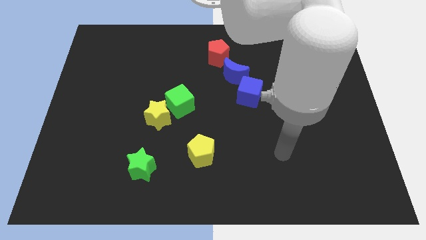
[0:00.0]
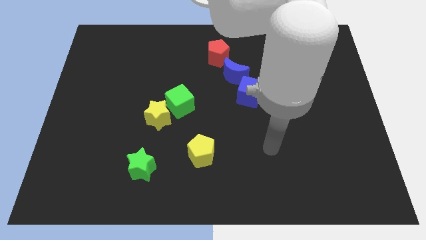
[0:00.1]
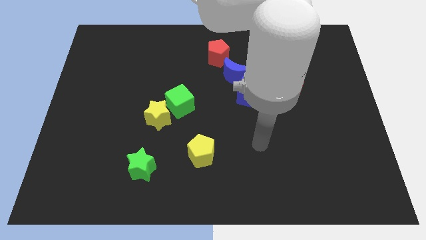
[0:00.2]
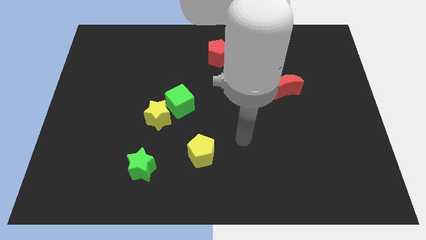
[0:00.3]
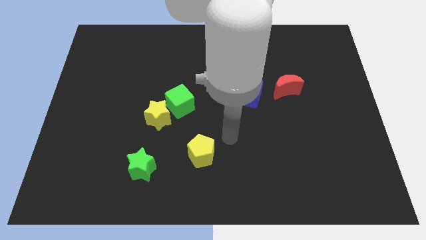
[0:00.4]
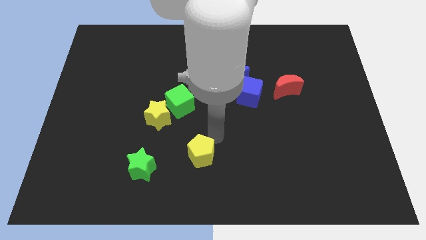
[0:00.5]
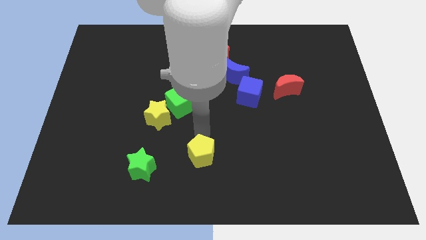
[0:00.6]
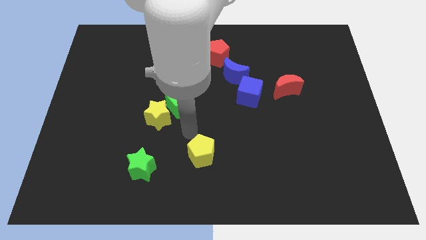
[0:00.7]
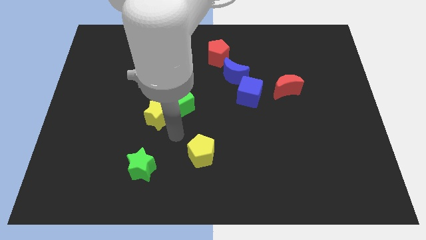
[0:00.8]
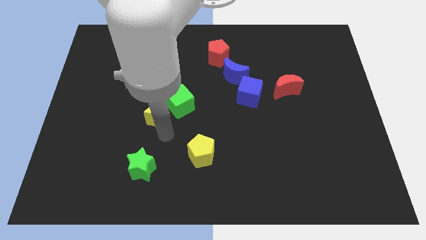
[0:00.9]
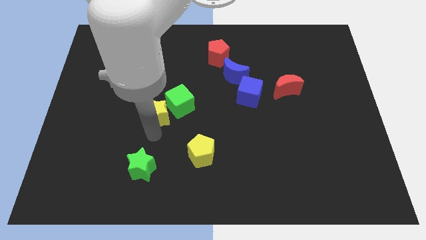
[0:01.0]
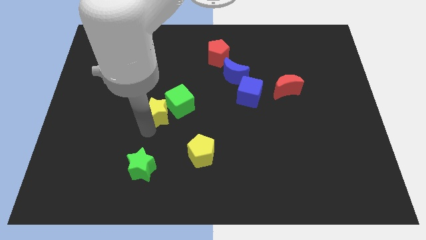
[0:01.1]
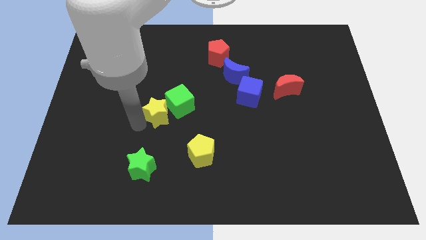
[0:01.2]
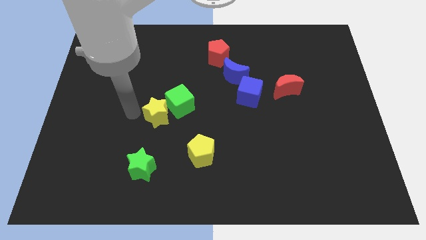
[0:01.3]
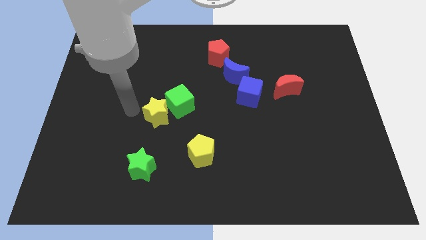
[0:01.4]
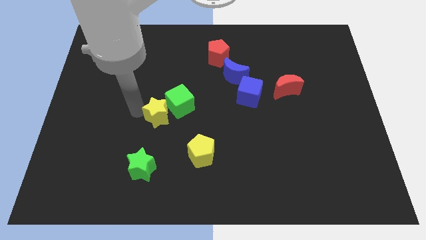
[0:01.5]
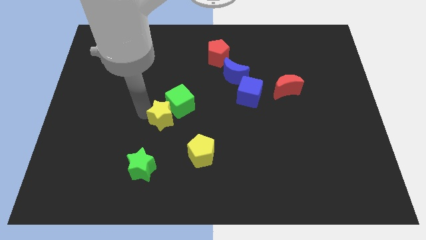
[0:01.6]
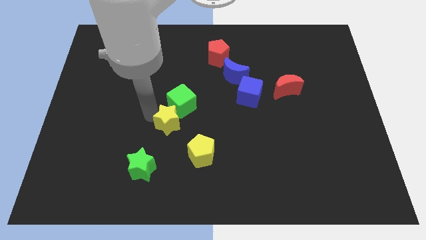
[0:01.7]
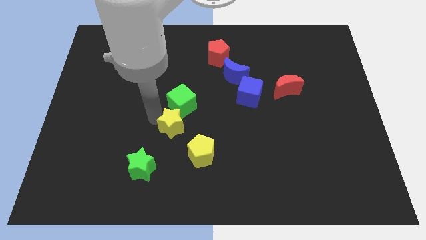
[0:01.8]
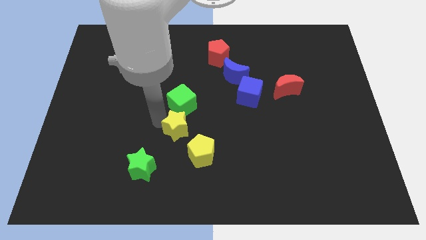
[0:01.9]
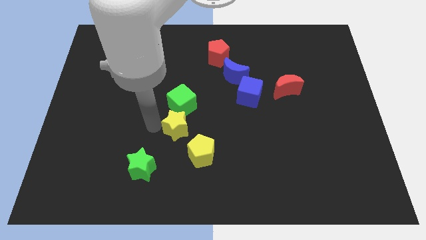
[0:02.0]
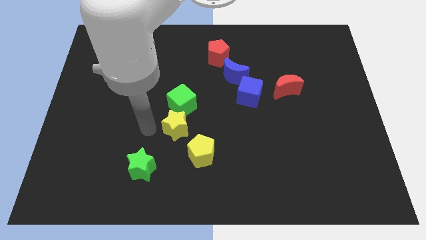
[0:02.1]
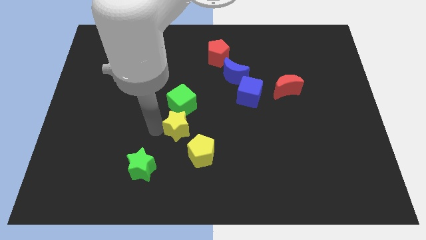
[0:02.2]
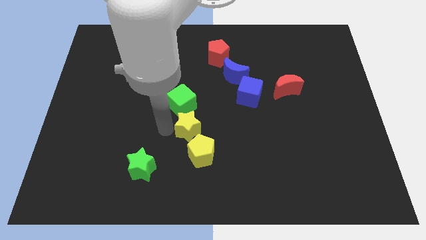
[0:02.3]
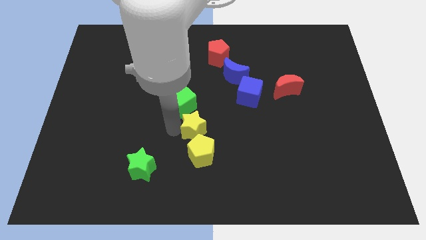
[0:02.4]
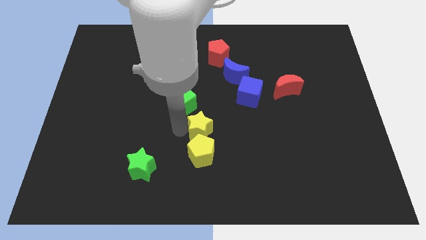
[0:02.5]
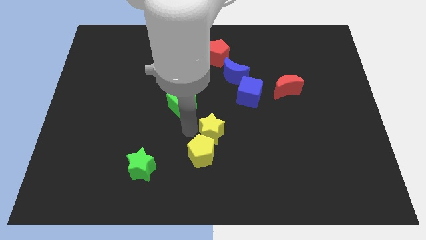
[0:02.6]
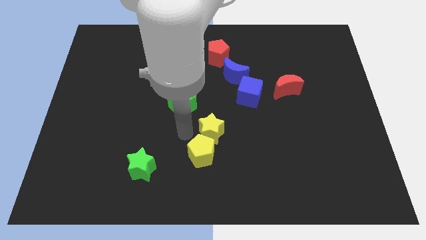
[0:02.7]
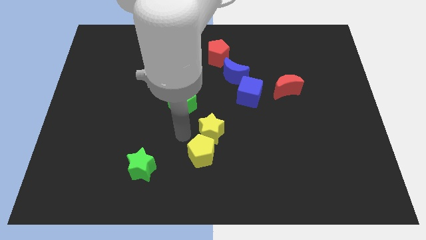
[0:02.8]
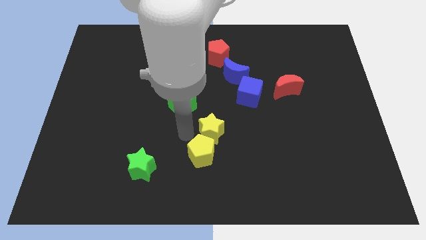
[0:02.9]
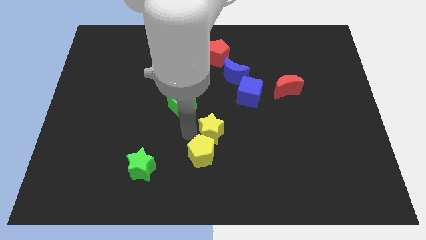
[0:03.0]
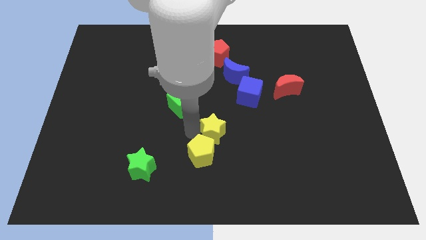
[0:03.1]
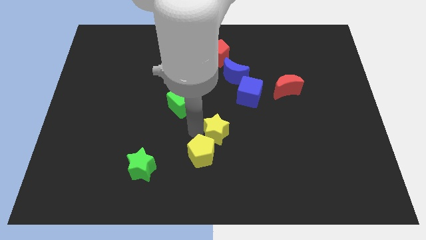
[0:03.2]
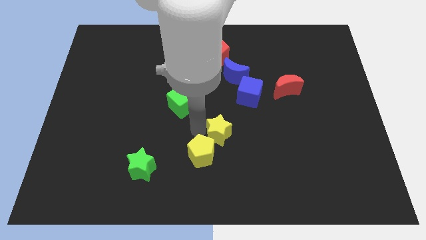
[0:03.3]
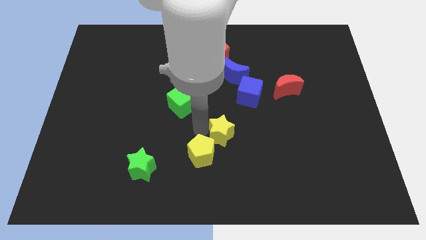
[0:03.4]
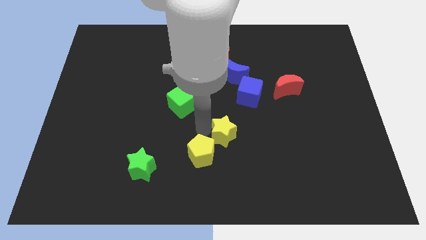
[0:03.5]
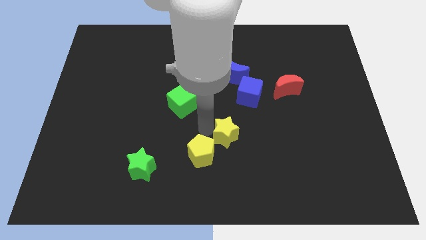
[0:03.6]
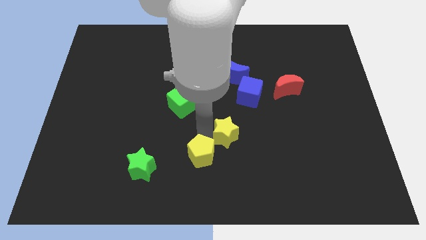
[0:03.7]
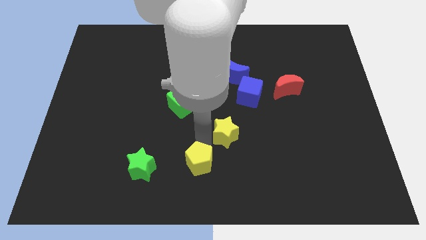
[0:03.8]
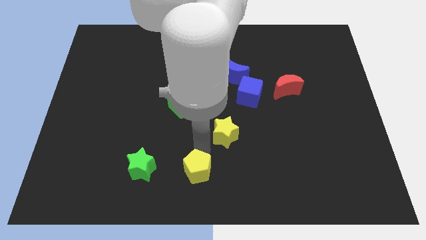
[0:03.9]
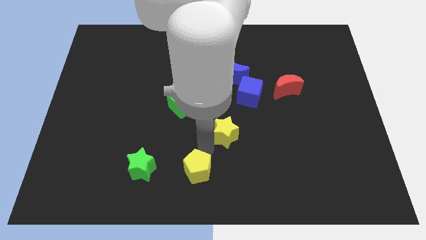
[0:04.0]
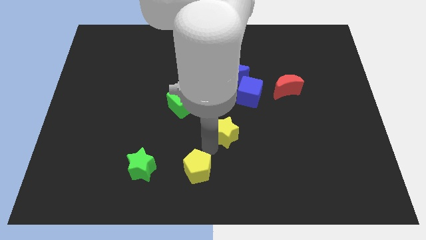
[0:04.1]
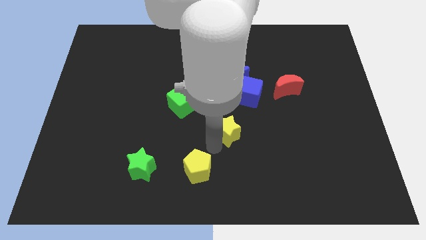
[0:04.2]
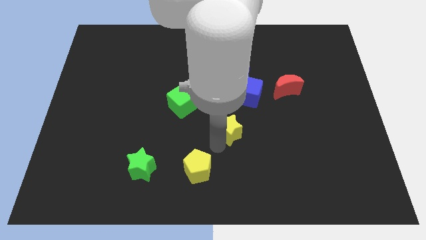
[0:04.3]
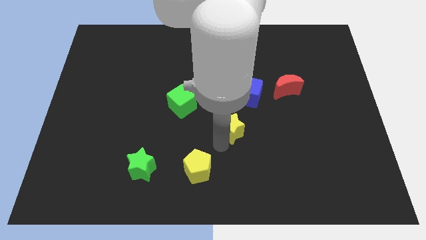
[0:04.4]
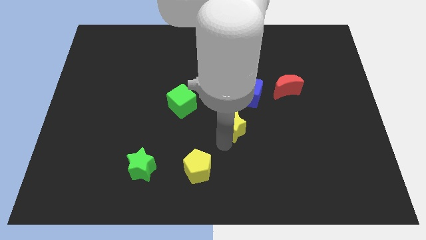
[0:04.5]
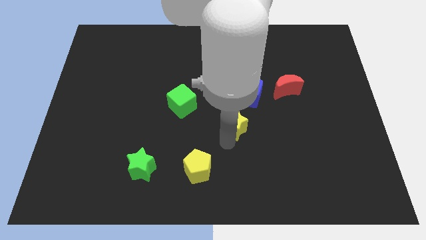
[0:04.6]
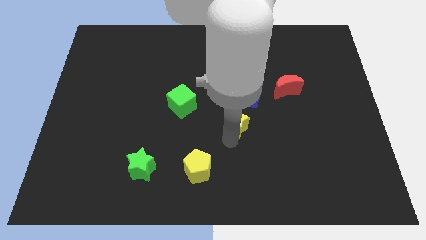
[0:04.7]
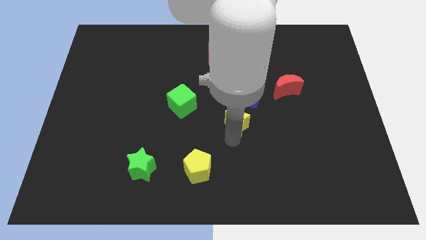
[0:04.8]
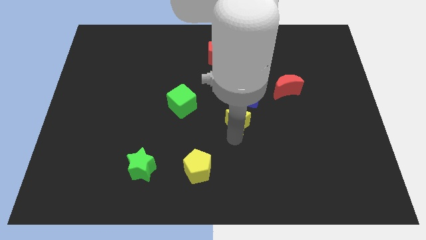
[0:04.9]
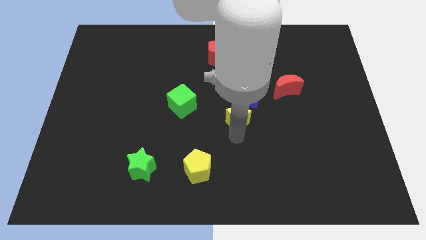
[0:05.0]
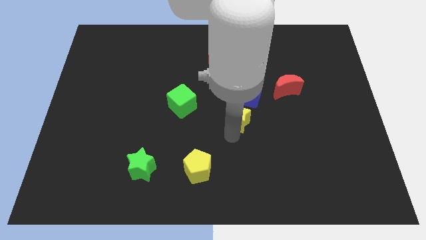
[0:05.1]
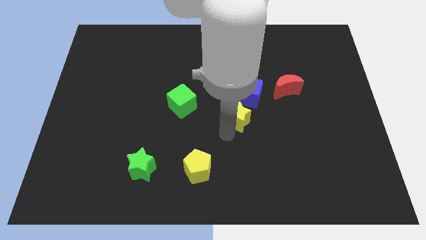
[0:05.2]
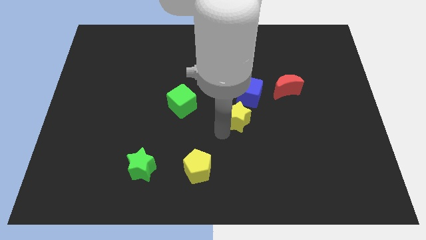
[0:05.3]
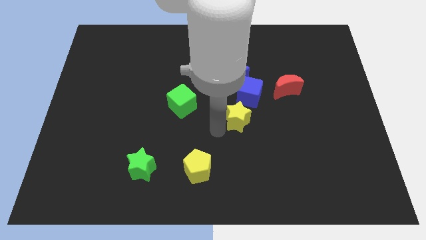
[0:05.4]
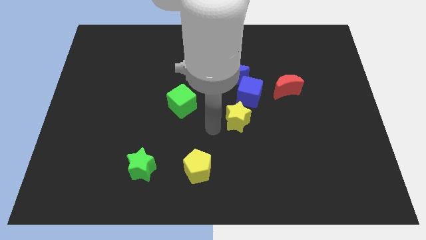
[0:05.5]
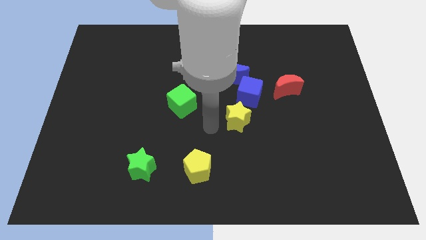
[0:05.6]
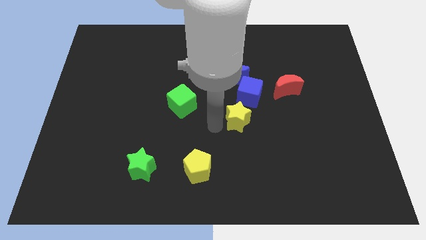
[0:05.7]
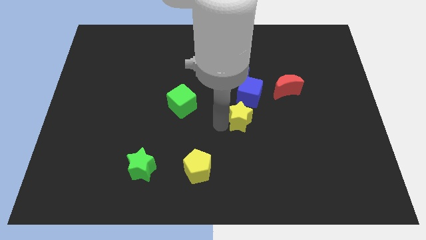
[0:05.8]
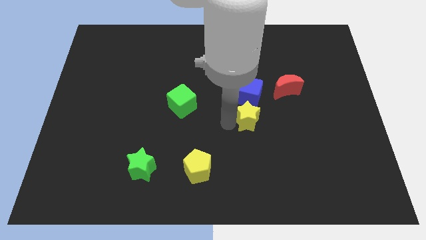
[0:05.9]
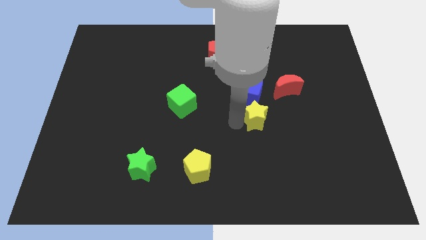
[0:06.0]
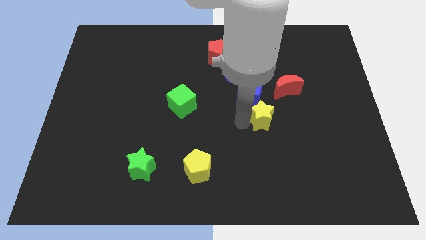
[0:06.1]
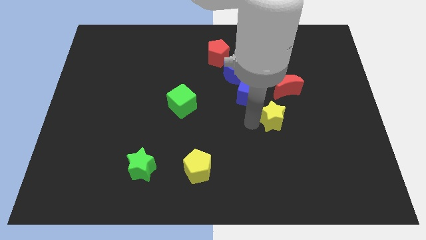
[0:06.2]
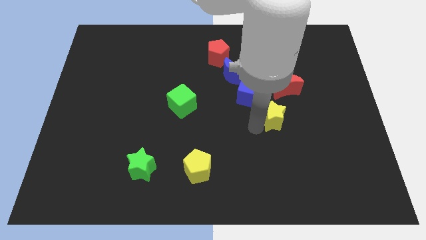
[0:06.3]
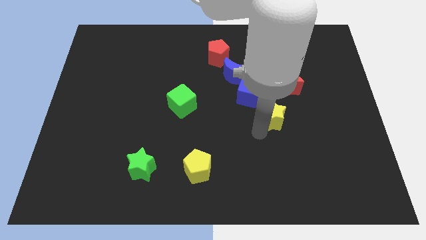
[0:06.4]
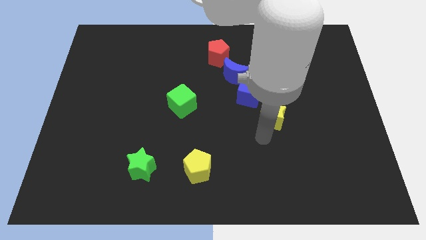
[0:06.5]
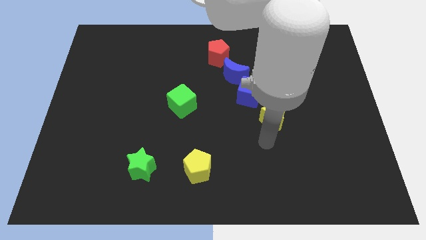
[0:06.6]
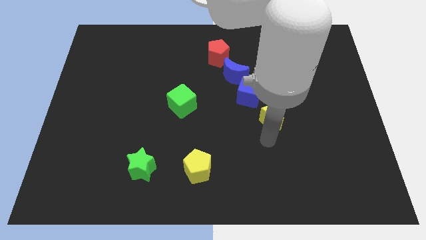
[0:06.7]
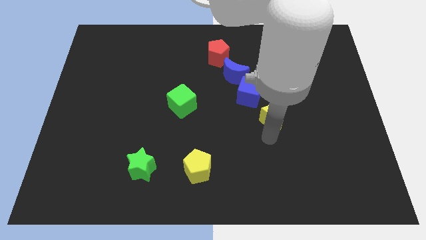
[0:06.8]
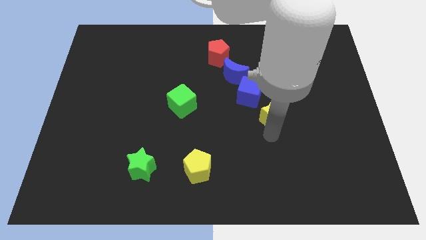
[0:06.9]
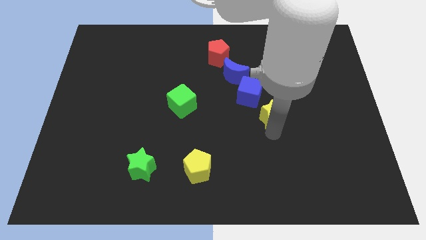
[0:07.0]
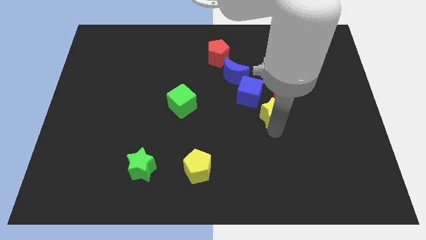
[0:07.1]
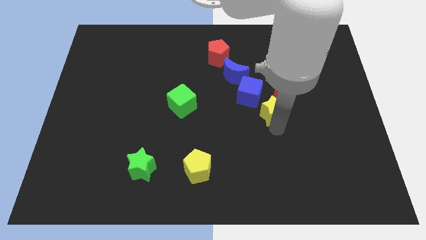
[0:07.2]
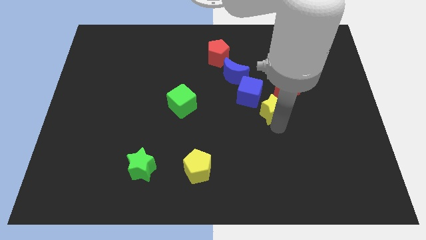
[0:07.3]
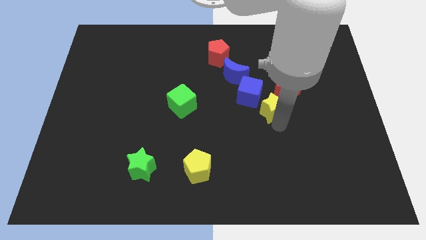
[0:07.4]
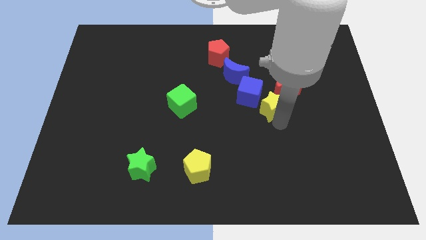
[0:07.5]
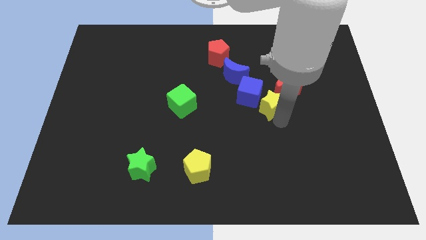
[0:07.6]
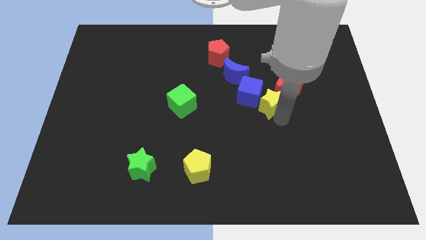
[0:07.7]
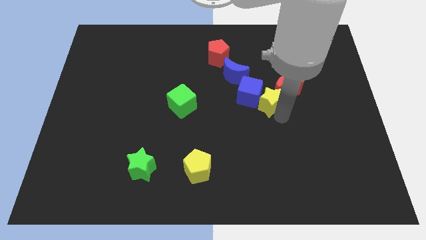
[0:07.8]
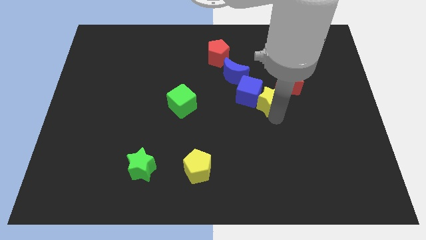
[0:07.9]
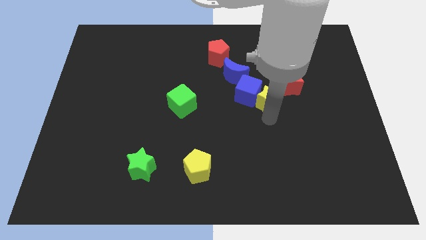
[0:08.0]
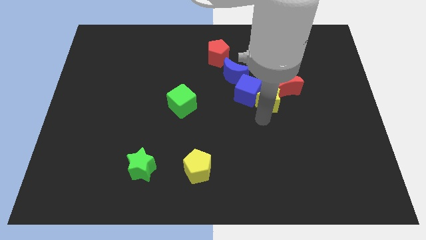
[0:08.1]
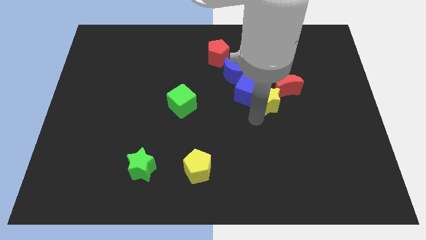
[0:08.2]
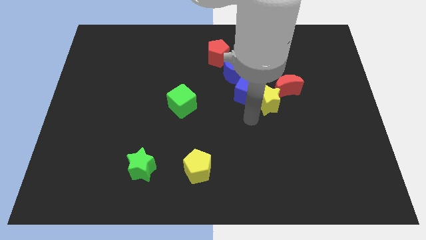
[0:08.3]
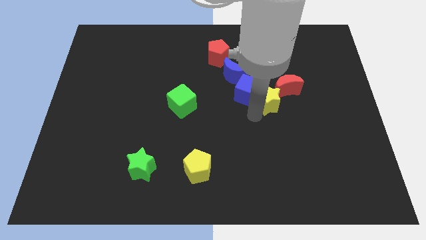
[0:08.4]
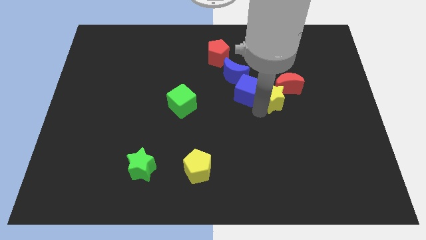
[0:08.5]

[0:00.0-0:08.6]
slide the yellow star next to the red moon
